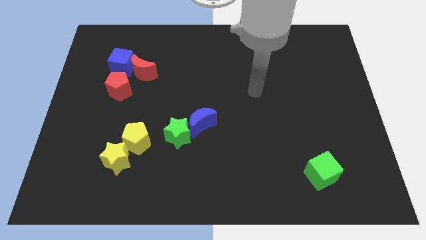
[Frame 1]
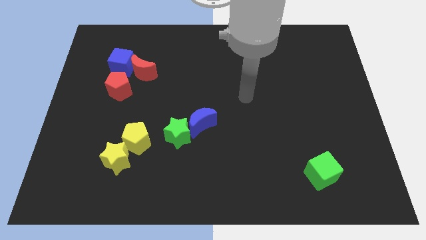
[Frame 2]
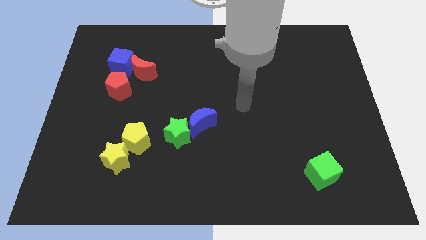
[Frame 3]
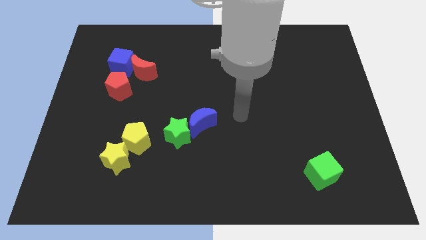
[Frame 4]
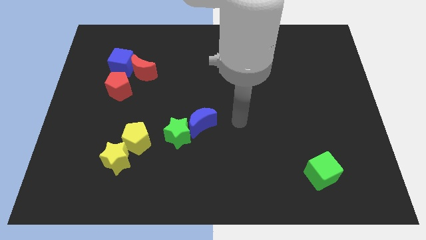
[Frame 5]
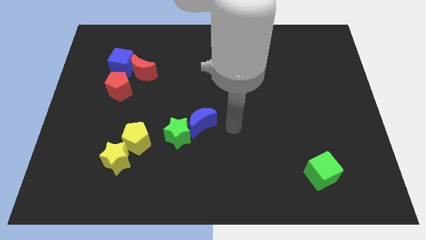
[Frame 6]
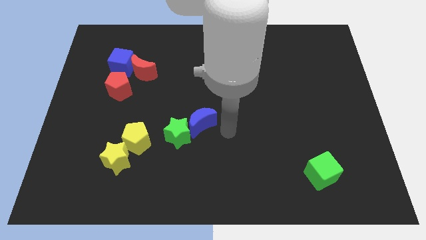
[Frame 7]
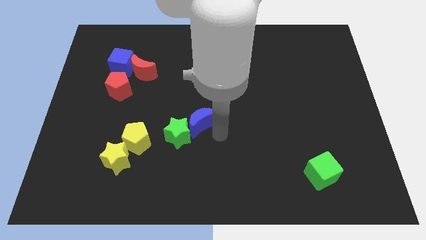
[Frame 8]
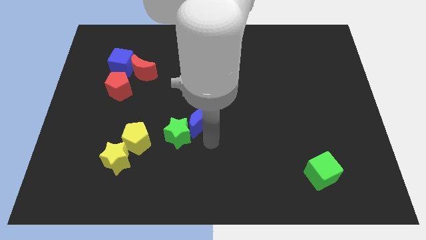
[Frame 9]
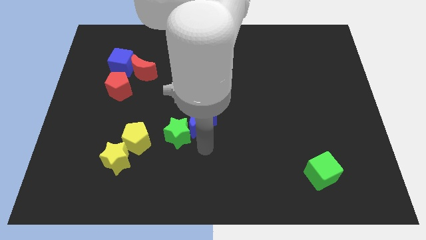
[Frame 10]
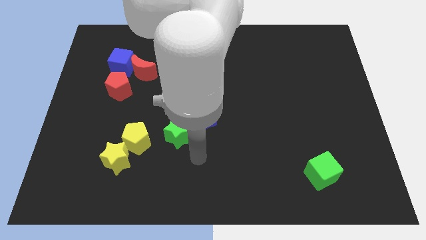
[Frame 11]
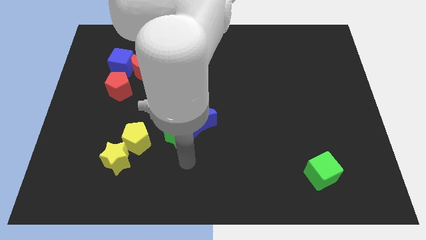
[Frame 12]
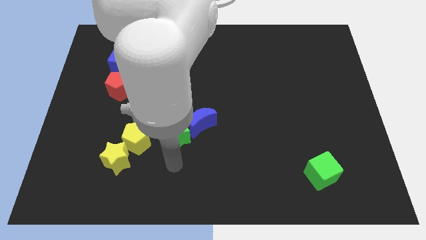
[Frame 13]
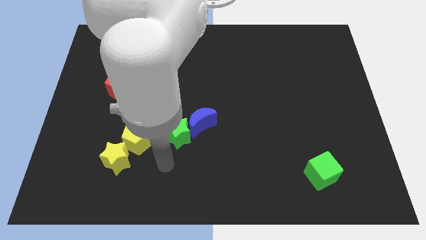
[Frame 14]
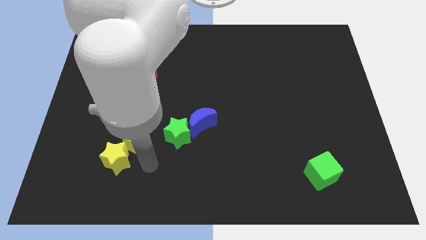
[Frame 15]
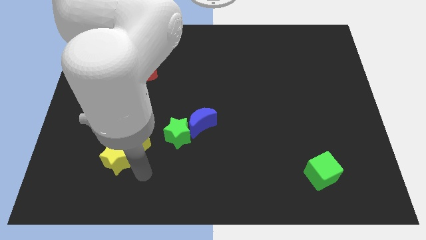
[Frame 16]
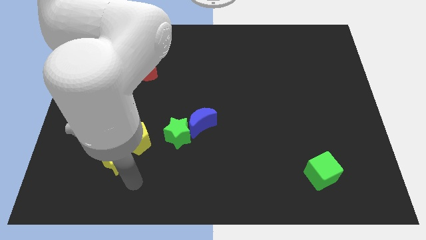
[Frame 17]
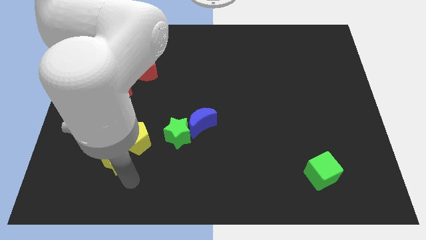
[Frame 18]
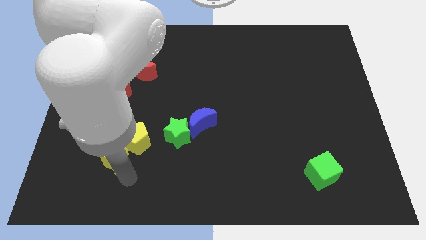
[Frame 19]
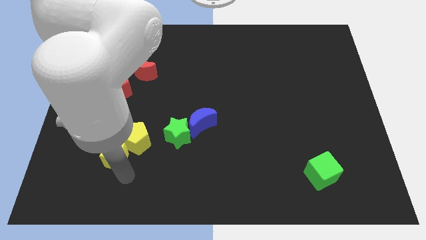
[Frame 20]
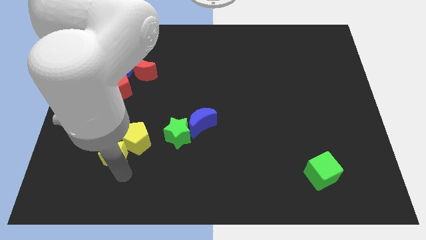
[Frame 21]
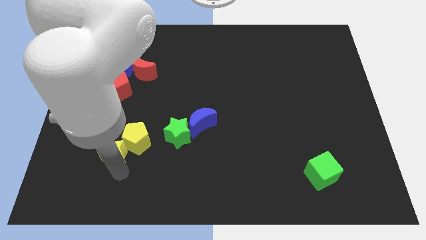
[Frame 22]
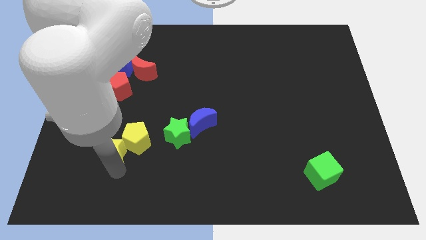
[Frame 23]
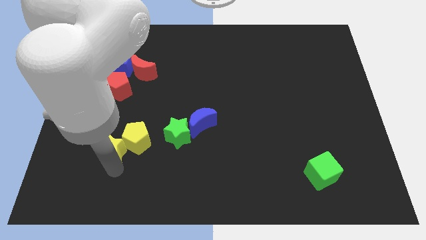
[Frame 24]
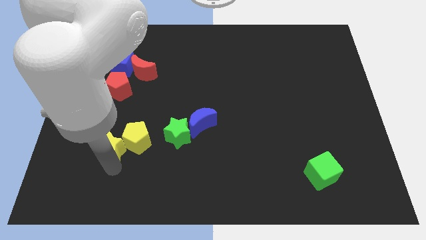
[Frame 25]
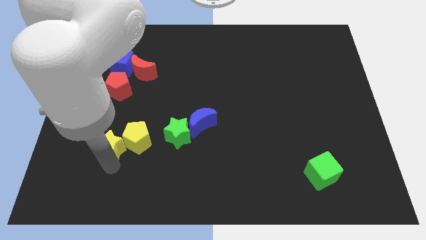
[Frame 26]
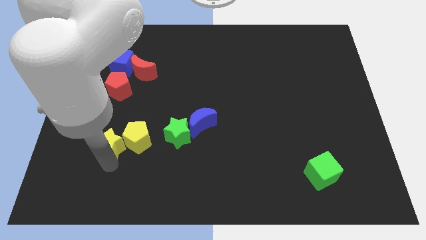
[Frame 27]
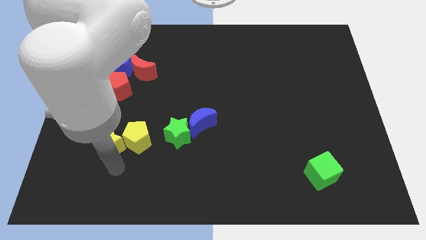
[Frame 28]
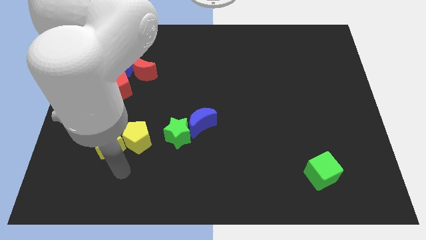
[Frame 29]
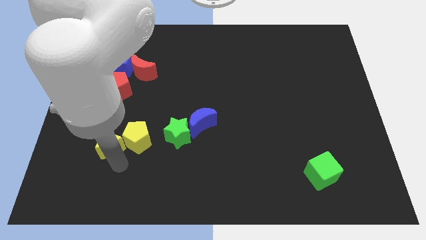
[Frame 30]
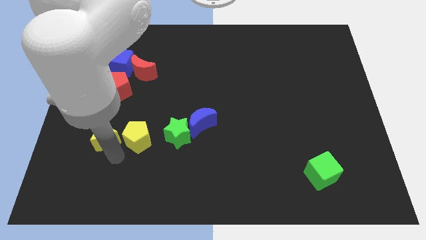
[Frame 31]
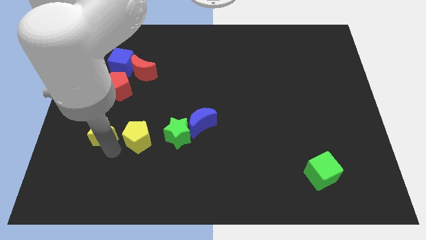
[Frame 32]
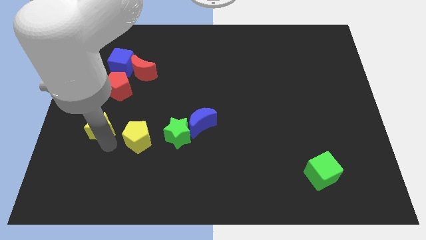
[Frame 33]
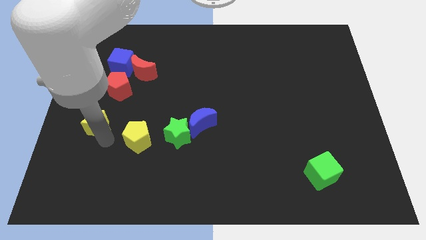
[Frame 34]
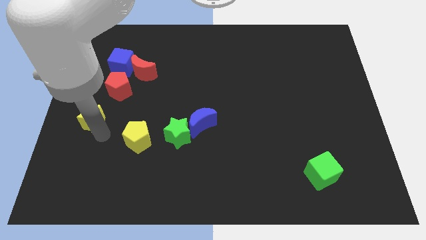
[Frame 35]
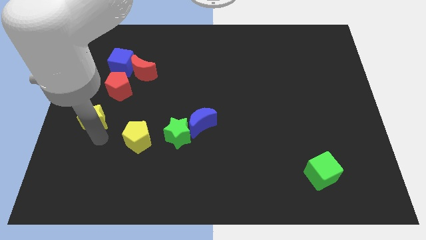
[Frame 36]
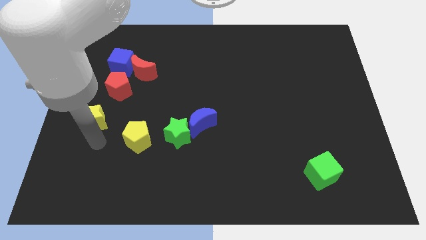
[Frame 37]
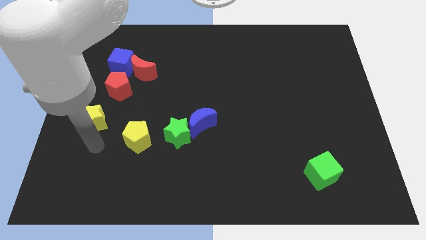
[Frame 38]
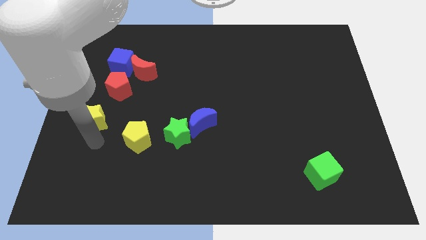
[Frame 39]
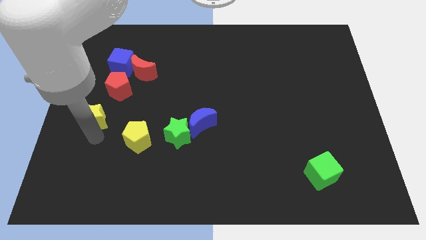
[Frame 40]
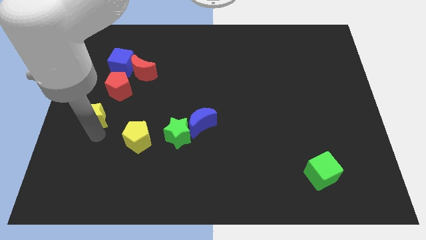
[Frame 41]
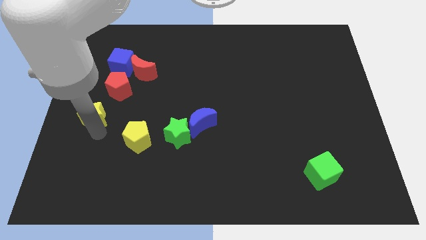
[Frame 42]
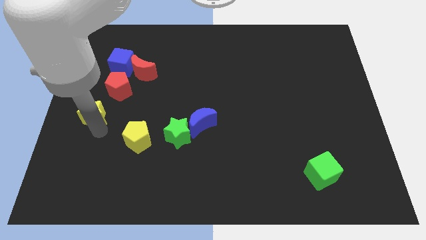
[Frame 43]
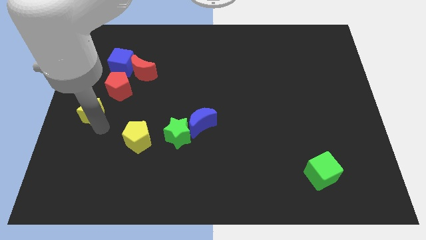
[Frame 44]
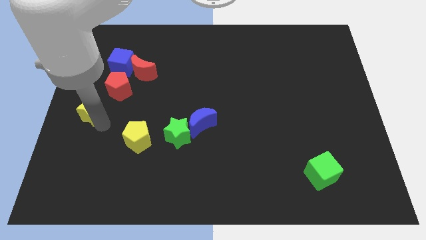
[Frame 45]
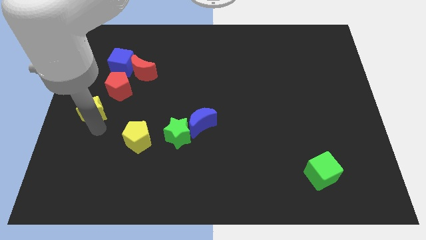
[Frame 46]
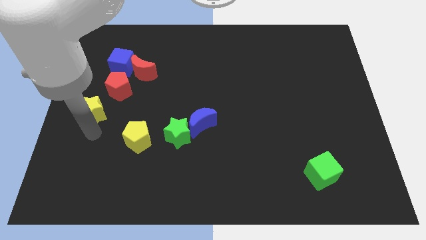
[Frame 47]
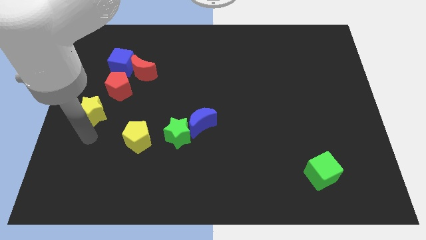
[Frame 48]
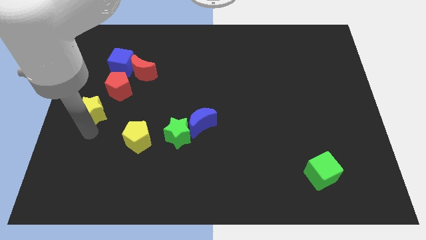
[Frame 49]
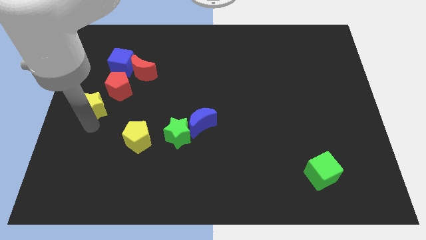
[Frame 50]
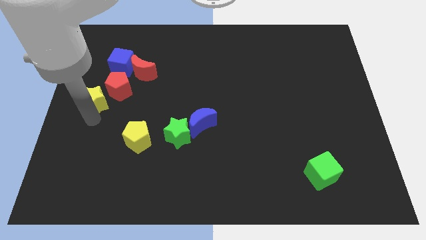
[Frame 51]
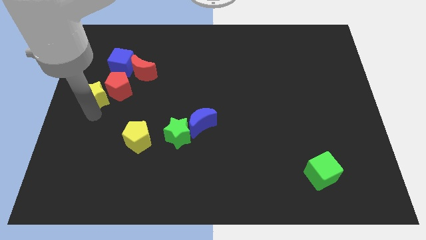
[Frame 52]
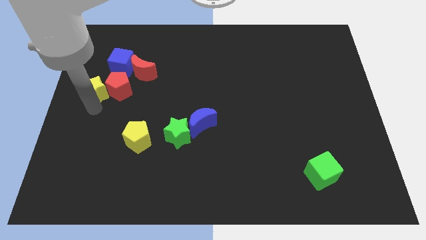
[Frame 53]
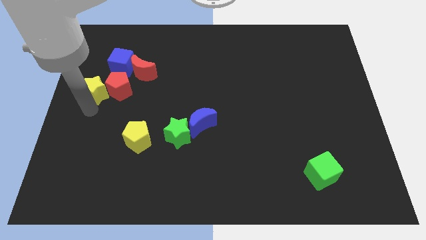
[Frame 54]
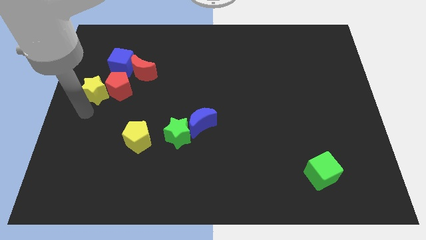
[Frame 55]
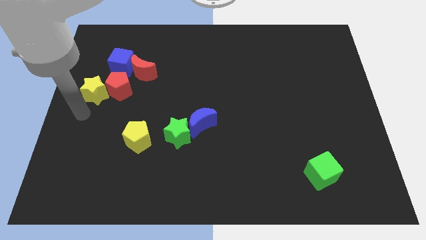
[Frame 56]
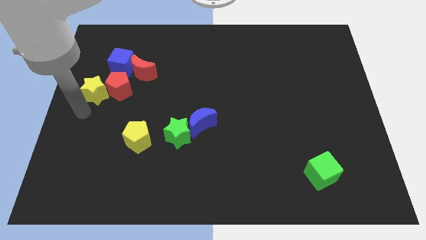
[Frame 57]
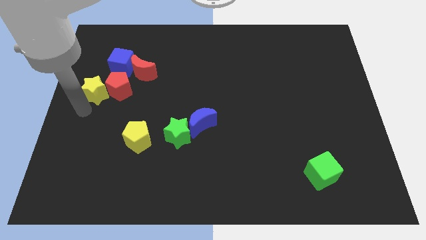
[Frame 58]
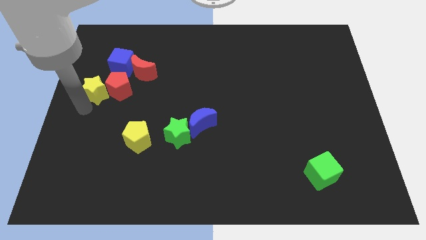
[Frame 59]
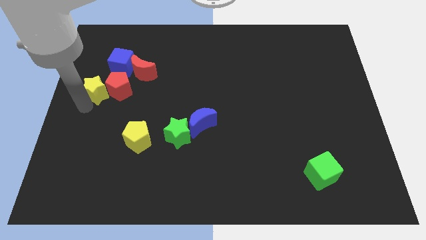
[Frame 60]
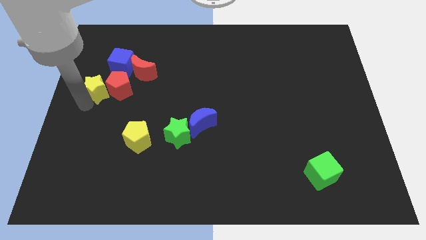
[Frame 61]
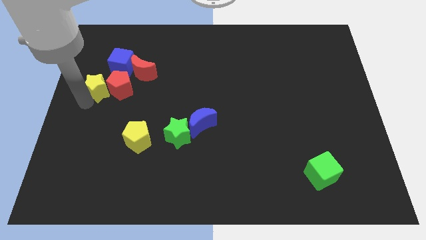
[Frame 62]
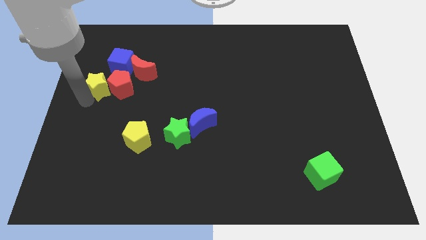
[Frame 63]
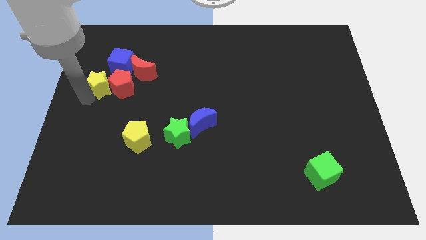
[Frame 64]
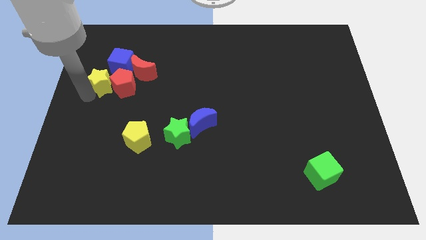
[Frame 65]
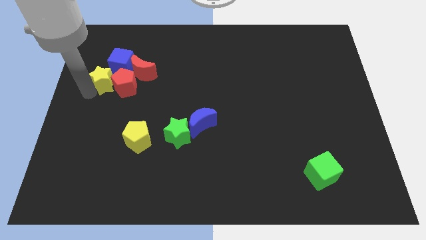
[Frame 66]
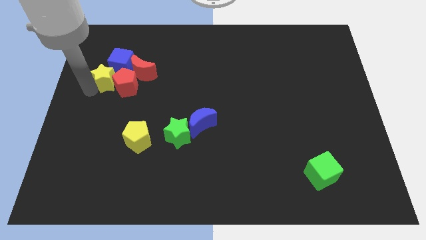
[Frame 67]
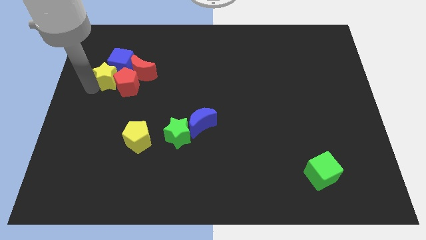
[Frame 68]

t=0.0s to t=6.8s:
put the yellow star close to the blue cube

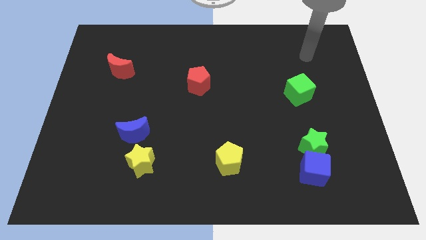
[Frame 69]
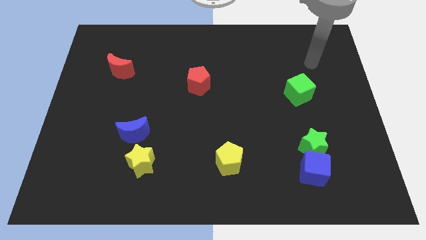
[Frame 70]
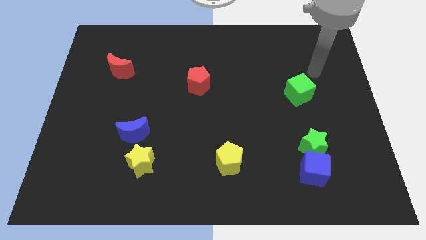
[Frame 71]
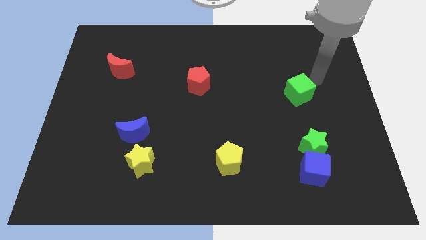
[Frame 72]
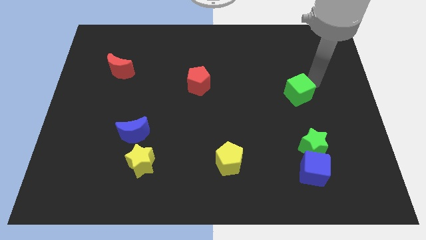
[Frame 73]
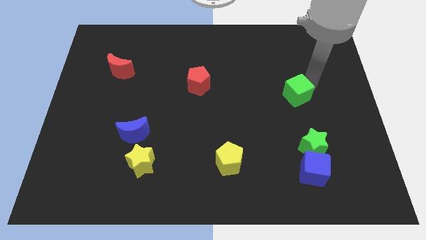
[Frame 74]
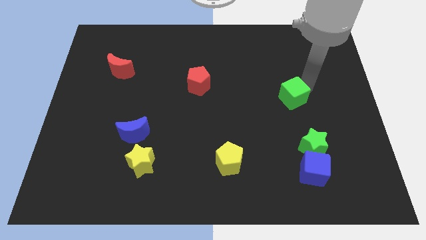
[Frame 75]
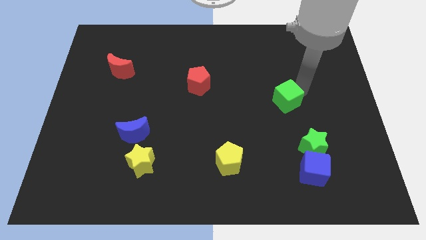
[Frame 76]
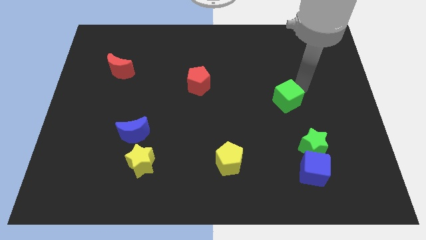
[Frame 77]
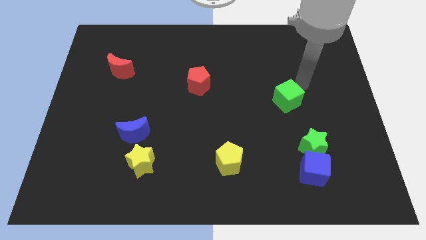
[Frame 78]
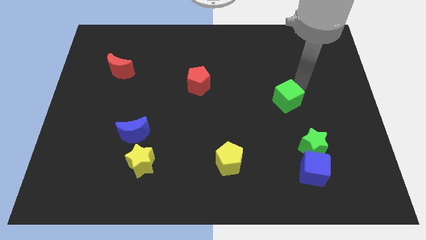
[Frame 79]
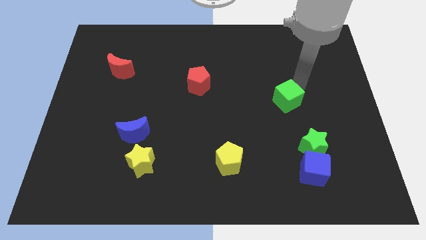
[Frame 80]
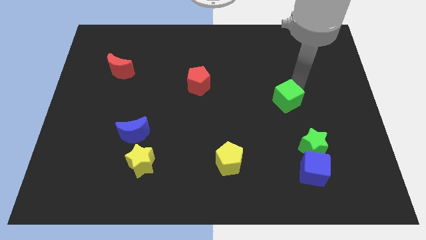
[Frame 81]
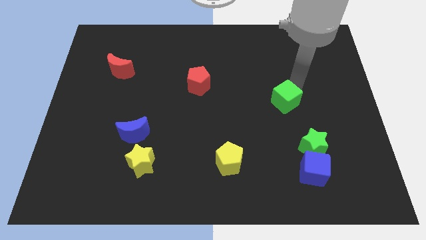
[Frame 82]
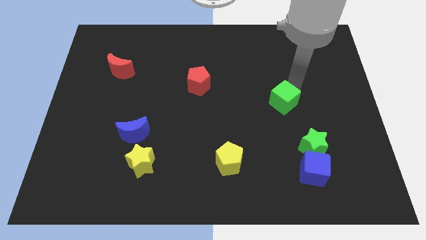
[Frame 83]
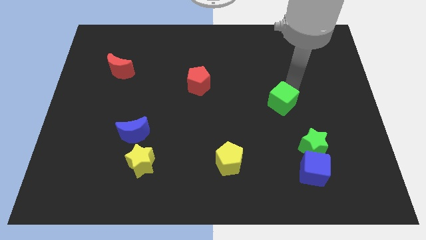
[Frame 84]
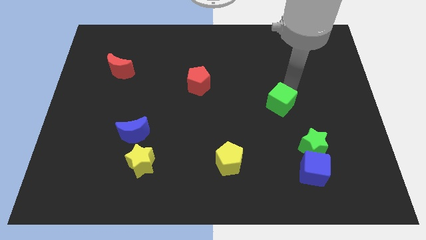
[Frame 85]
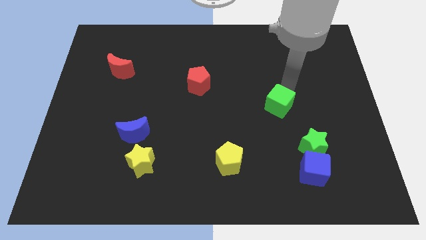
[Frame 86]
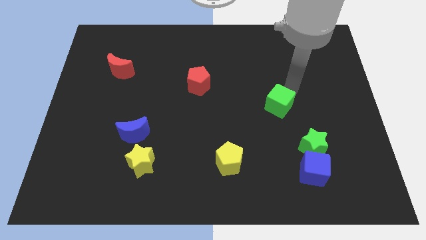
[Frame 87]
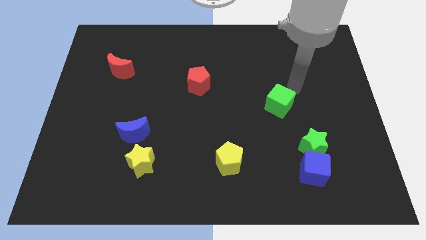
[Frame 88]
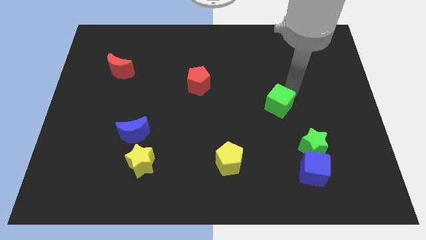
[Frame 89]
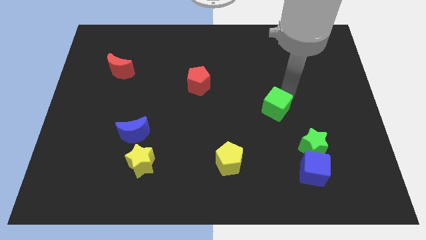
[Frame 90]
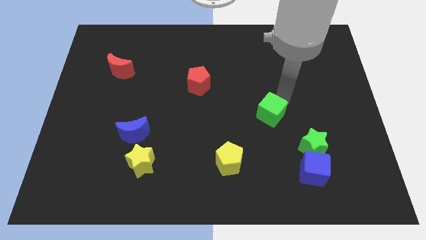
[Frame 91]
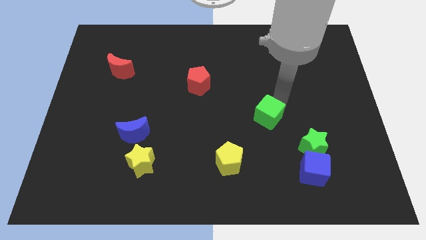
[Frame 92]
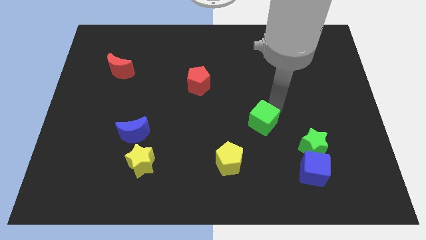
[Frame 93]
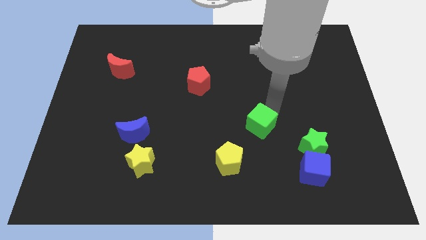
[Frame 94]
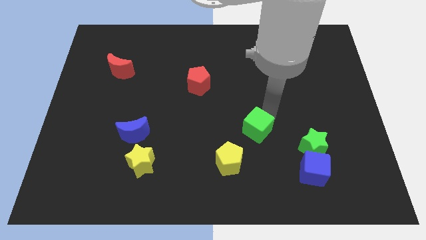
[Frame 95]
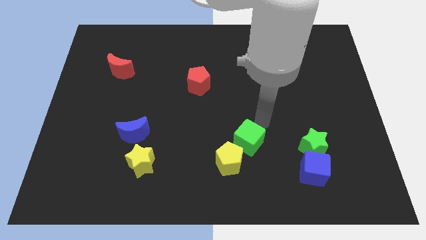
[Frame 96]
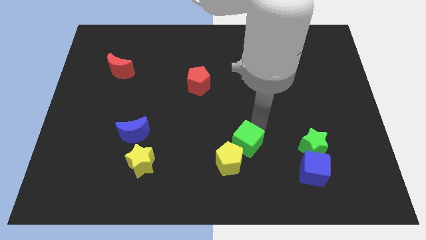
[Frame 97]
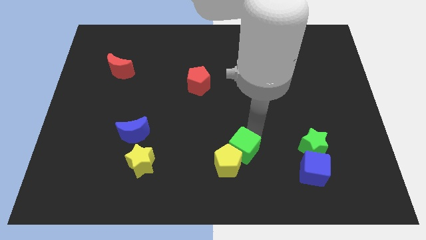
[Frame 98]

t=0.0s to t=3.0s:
move the green cube towards the yellow pentagon
